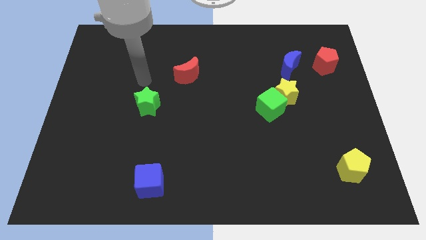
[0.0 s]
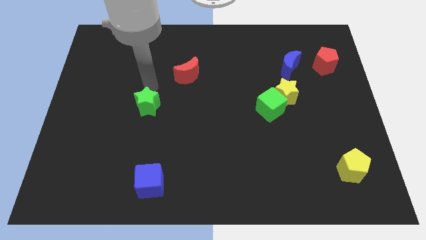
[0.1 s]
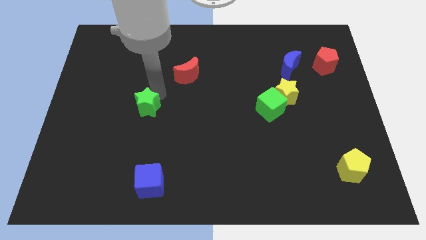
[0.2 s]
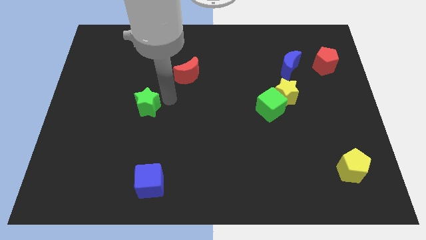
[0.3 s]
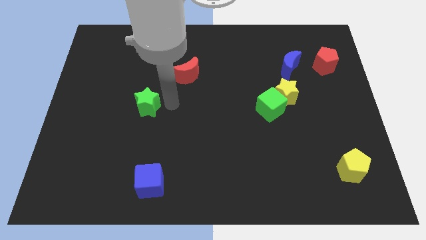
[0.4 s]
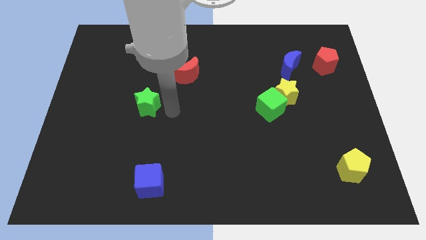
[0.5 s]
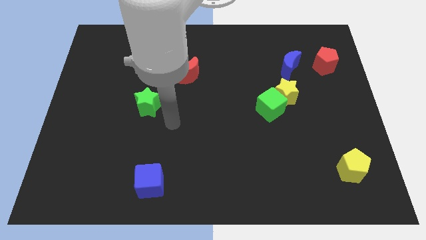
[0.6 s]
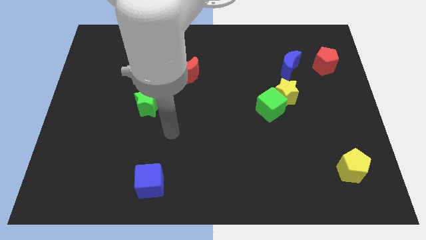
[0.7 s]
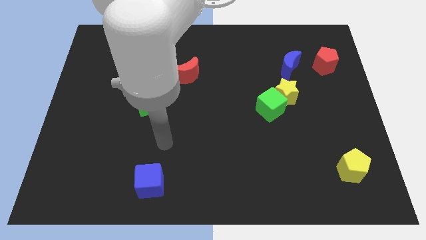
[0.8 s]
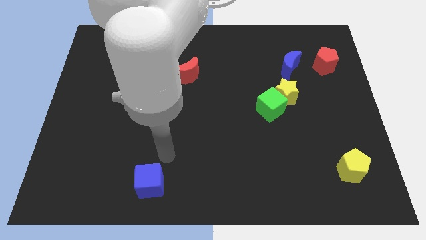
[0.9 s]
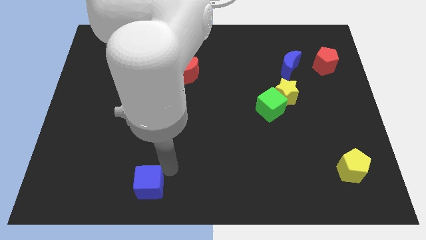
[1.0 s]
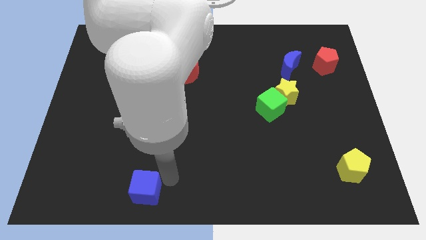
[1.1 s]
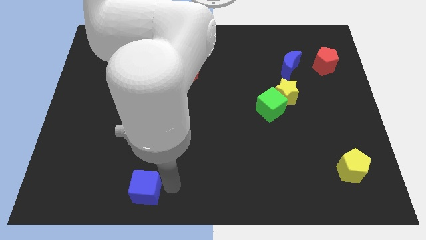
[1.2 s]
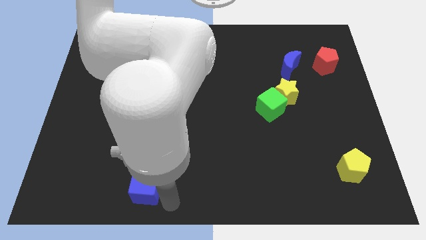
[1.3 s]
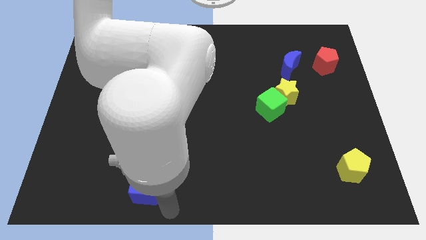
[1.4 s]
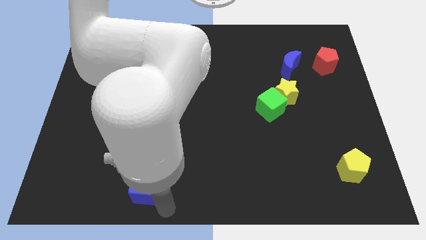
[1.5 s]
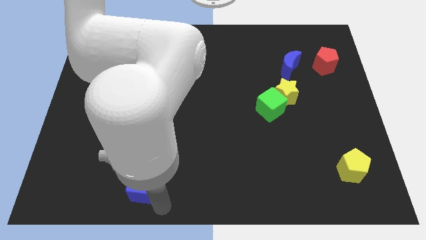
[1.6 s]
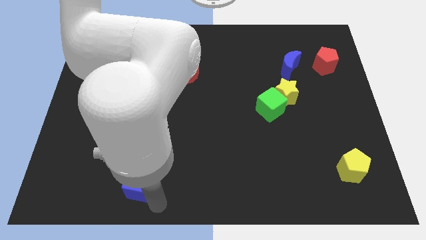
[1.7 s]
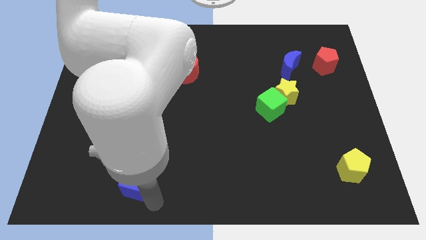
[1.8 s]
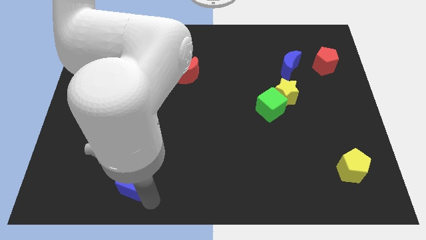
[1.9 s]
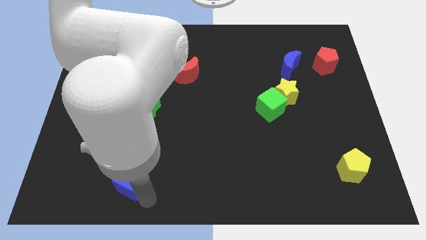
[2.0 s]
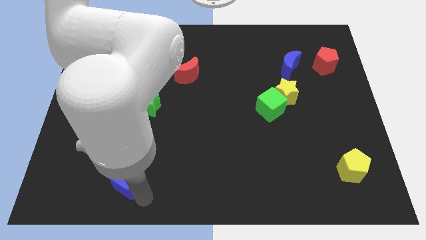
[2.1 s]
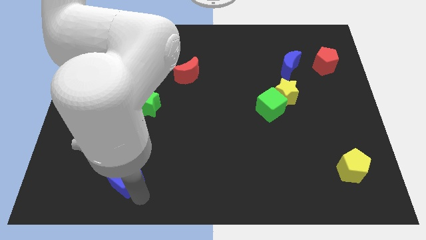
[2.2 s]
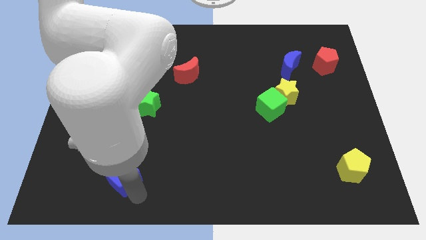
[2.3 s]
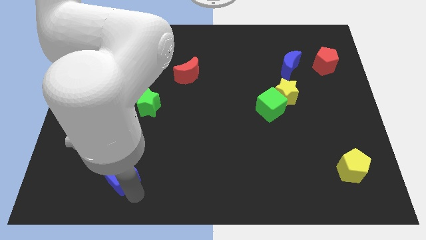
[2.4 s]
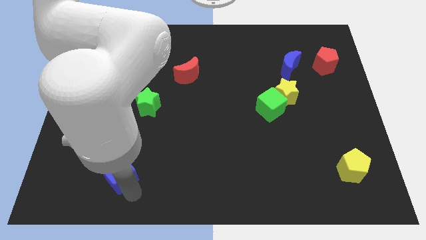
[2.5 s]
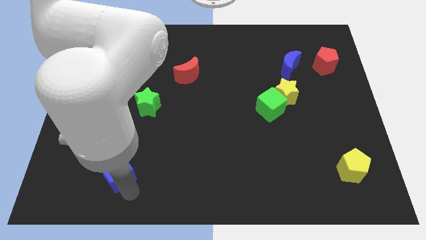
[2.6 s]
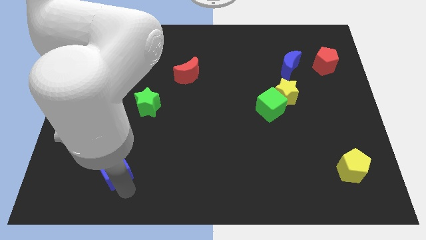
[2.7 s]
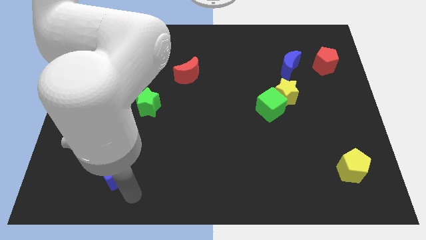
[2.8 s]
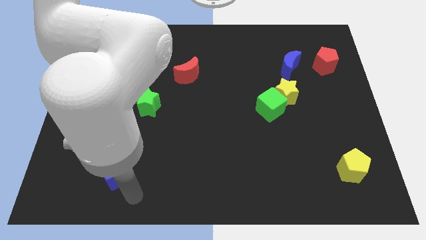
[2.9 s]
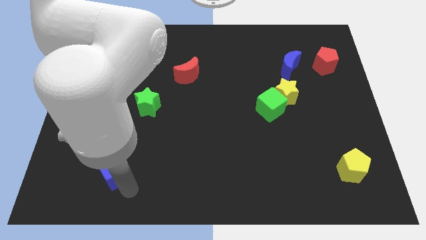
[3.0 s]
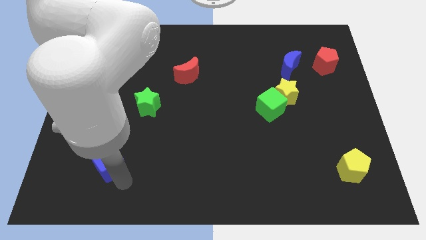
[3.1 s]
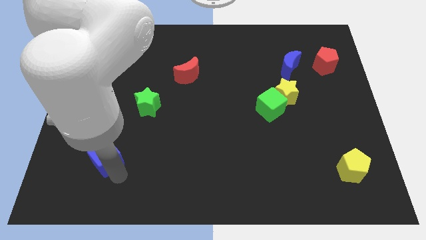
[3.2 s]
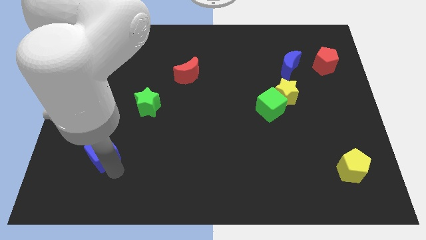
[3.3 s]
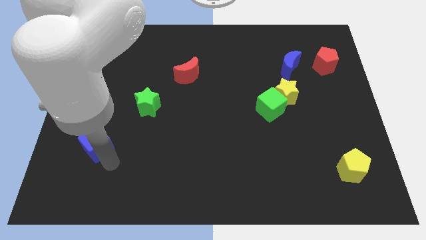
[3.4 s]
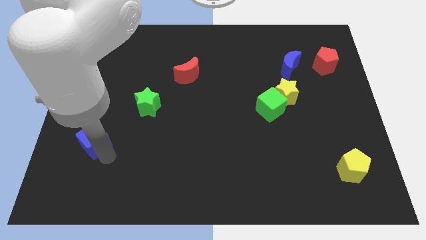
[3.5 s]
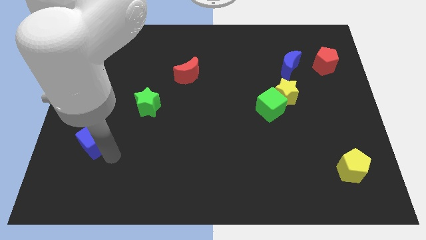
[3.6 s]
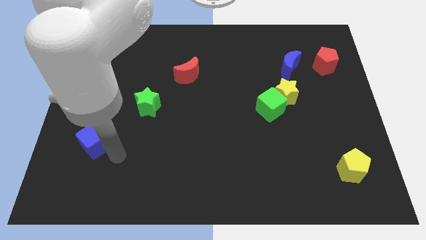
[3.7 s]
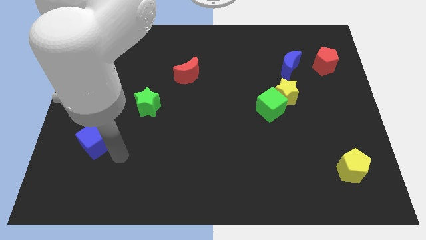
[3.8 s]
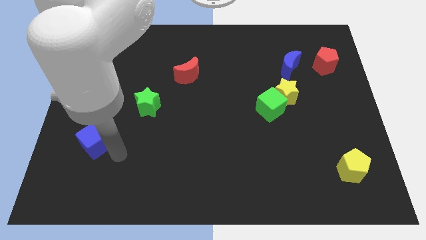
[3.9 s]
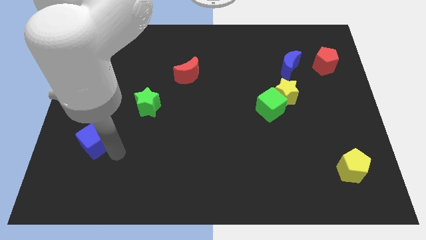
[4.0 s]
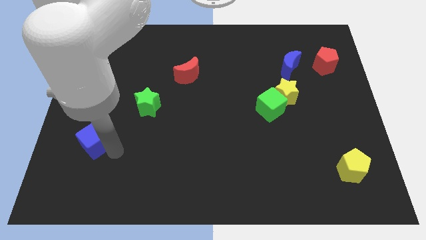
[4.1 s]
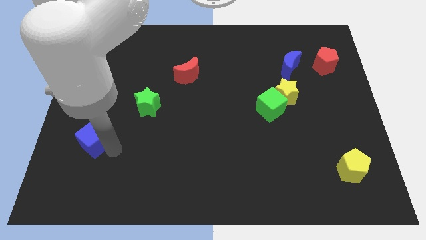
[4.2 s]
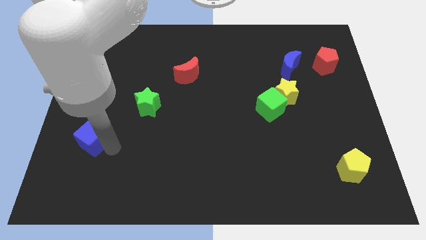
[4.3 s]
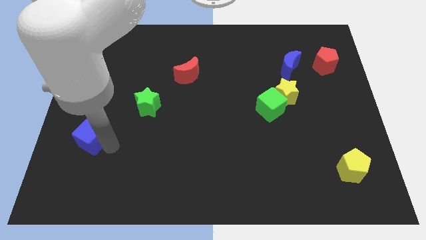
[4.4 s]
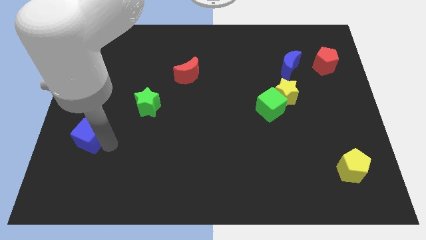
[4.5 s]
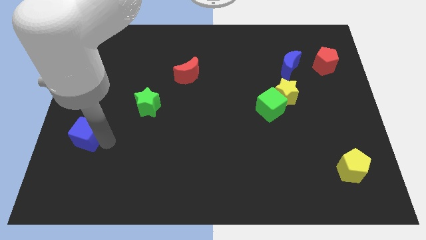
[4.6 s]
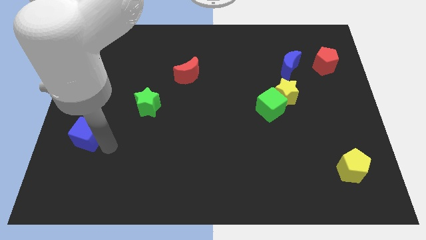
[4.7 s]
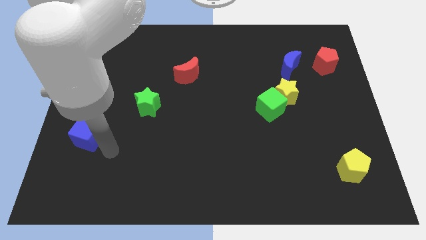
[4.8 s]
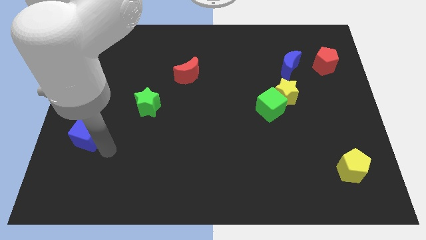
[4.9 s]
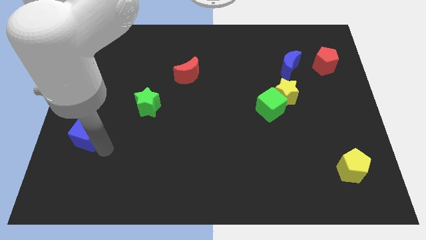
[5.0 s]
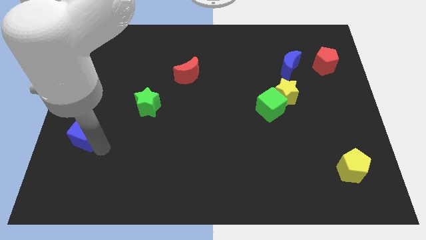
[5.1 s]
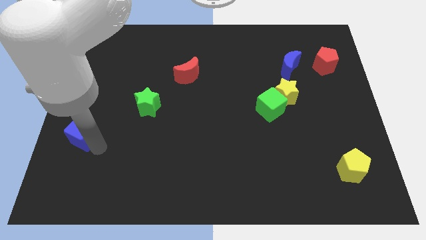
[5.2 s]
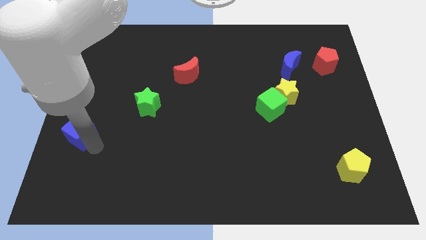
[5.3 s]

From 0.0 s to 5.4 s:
push the blue cube to the left side of the board

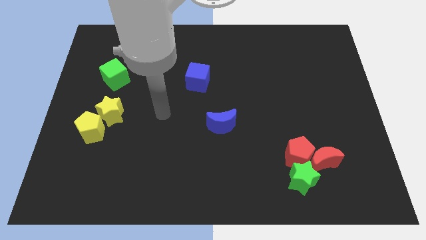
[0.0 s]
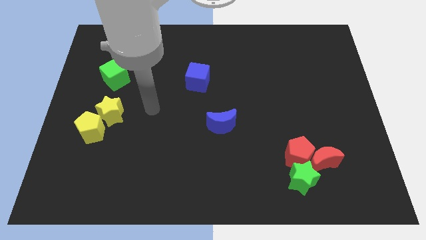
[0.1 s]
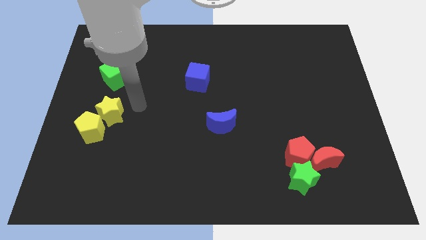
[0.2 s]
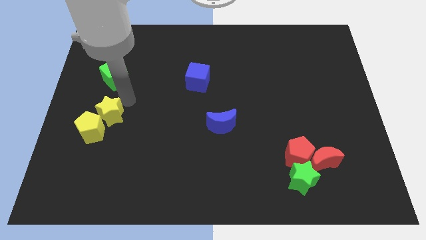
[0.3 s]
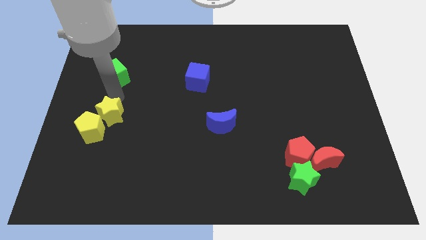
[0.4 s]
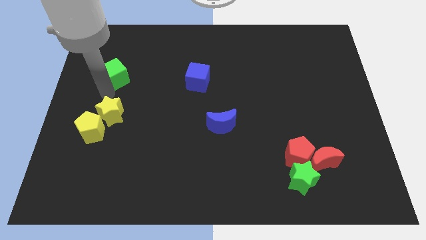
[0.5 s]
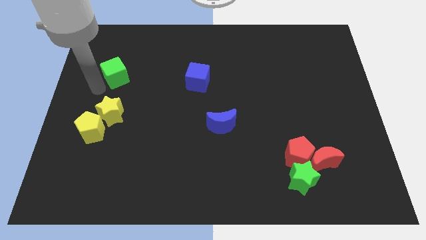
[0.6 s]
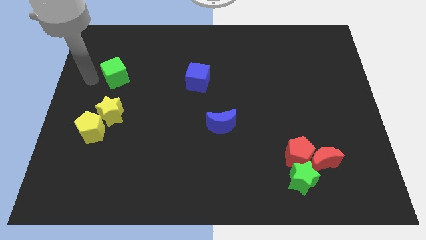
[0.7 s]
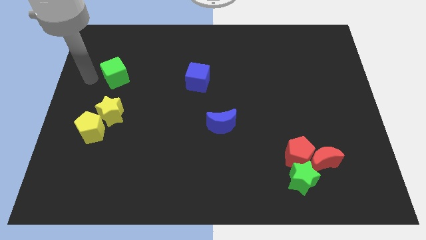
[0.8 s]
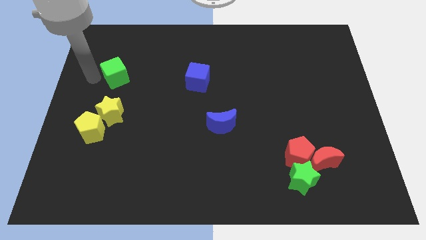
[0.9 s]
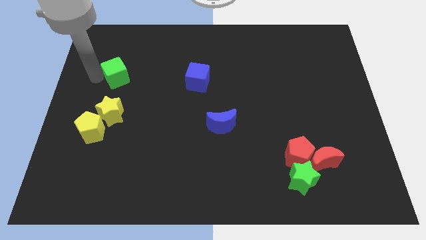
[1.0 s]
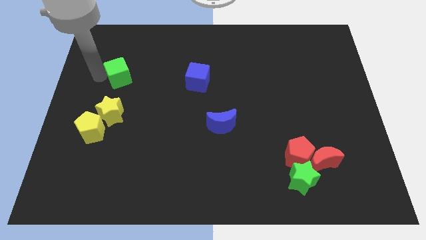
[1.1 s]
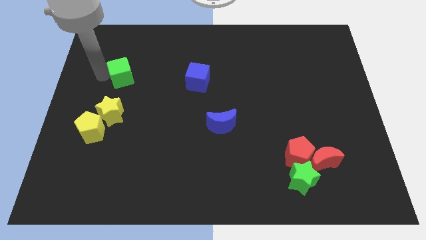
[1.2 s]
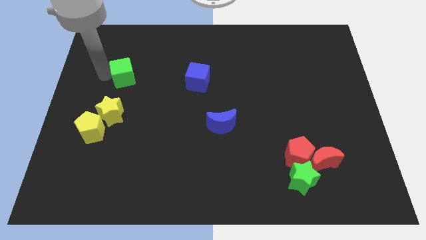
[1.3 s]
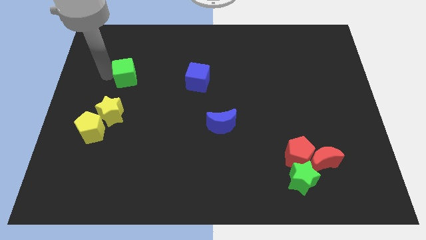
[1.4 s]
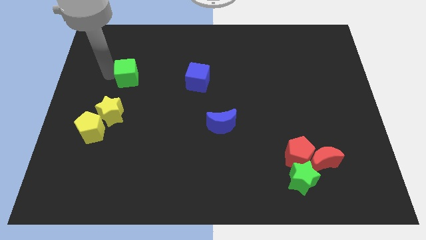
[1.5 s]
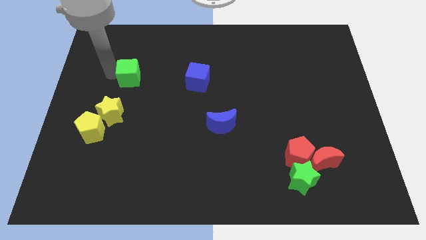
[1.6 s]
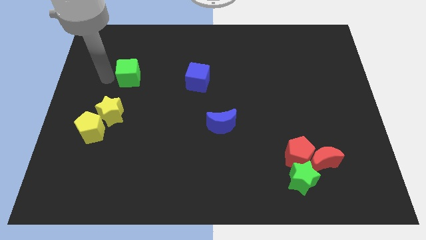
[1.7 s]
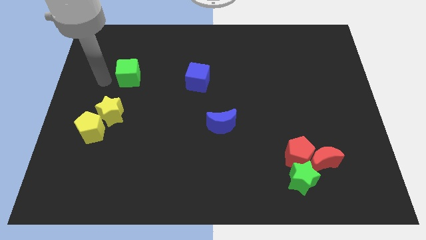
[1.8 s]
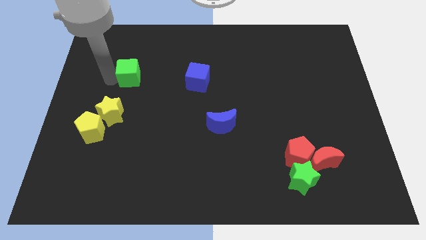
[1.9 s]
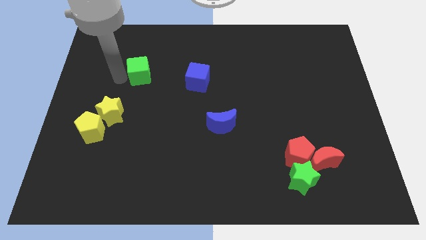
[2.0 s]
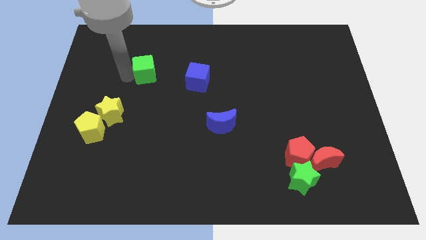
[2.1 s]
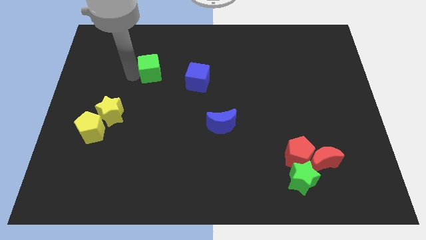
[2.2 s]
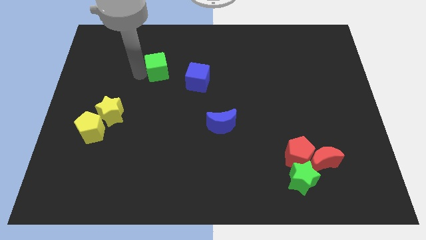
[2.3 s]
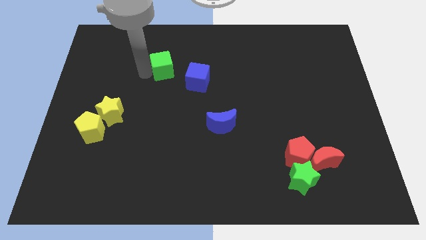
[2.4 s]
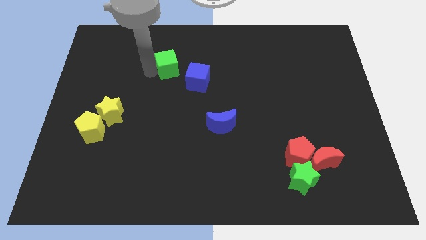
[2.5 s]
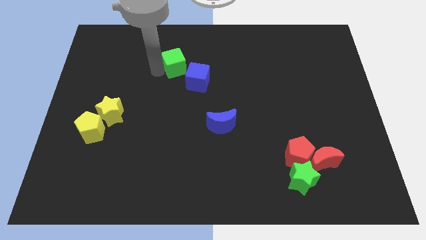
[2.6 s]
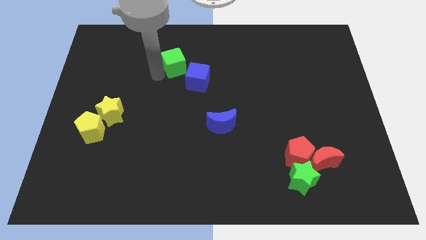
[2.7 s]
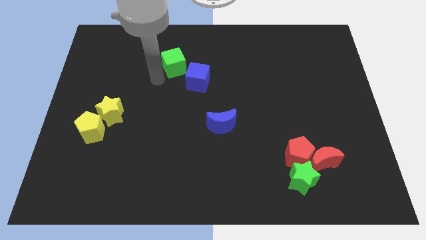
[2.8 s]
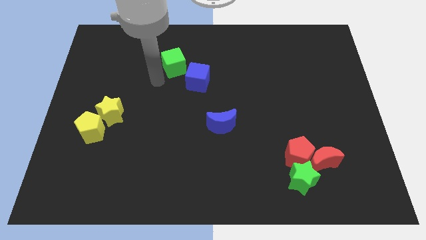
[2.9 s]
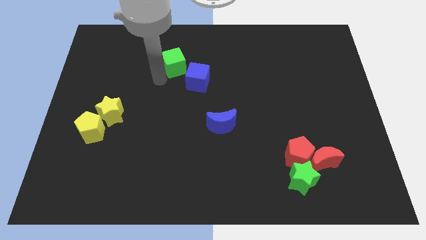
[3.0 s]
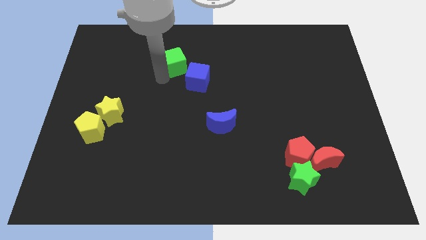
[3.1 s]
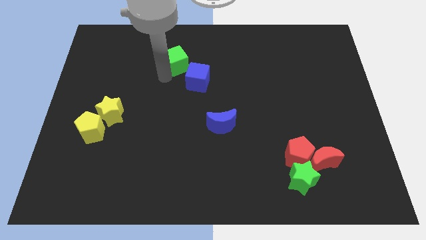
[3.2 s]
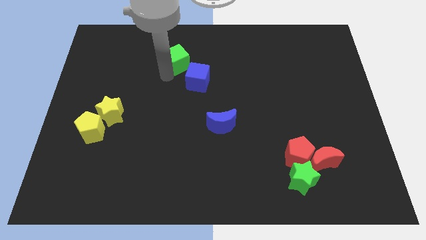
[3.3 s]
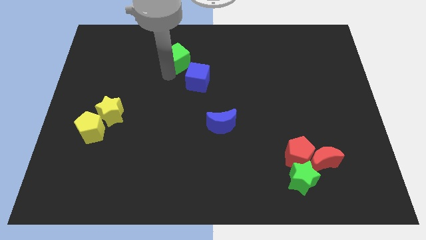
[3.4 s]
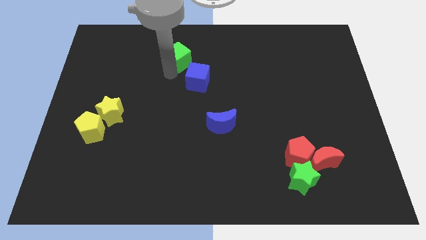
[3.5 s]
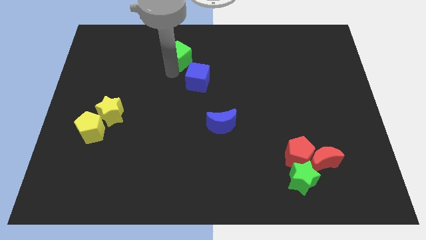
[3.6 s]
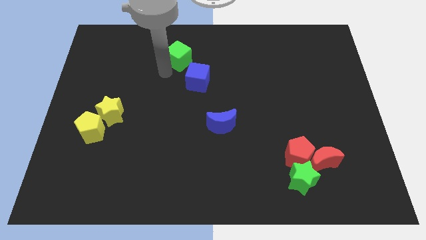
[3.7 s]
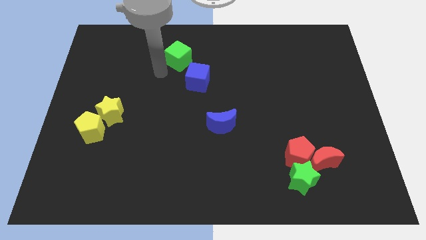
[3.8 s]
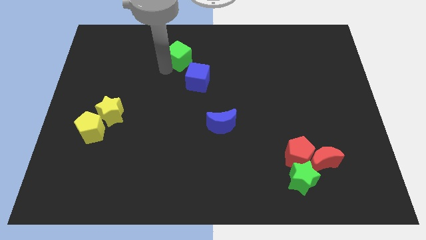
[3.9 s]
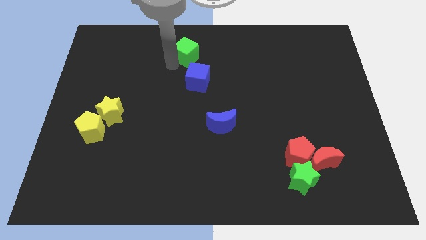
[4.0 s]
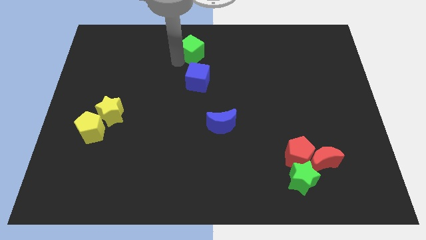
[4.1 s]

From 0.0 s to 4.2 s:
move the green cube to the top
